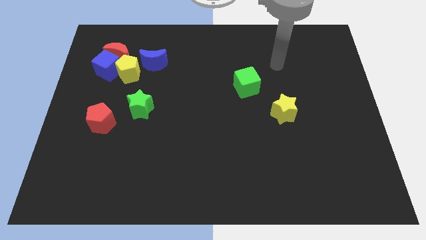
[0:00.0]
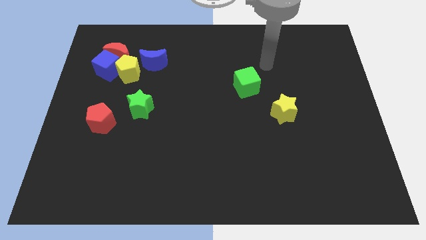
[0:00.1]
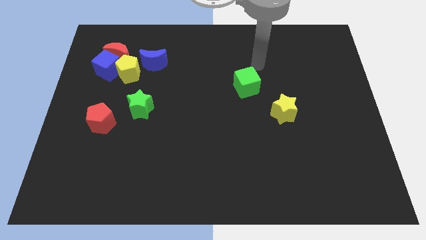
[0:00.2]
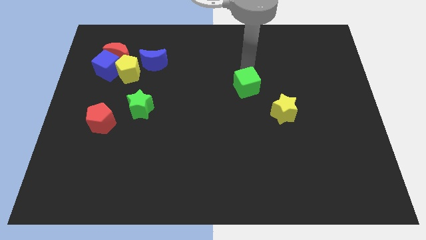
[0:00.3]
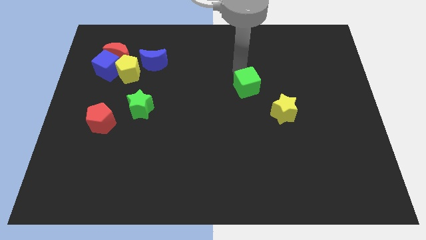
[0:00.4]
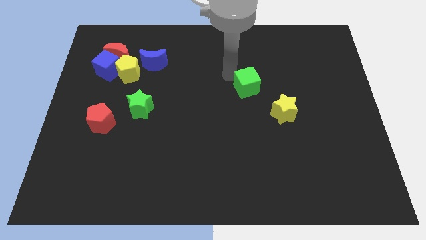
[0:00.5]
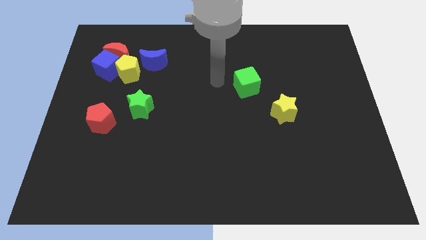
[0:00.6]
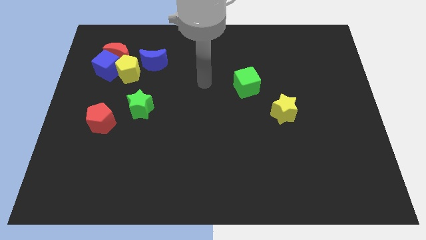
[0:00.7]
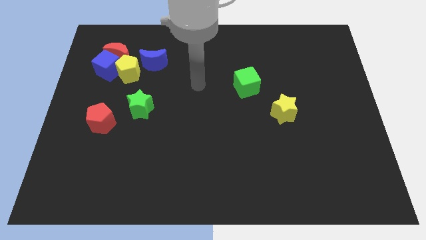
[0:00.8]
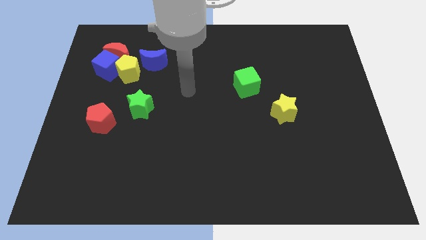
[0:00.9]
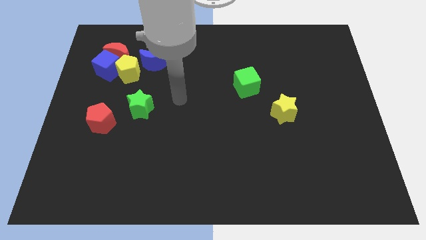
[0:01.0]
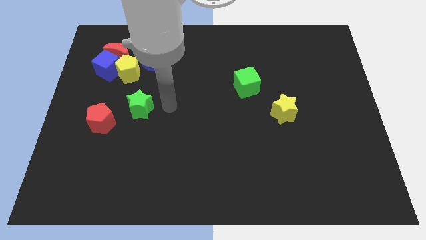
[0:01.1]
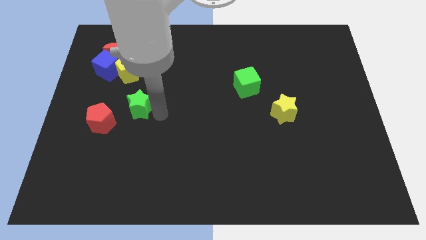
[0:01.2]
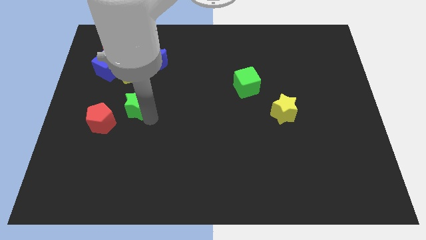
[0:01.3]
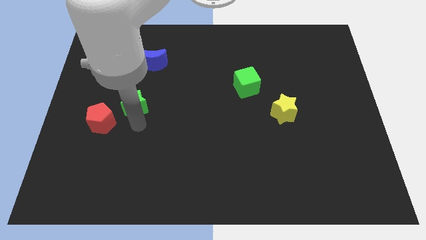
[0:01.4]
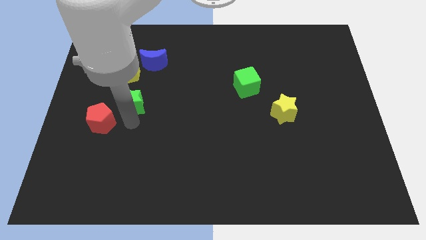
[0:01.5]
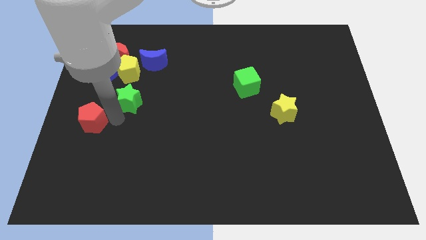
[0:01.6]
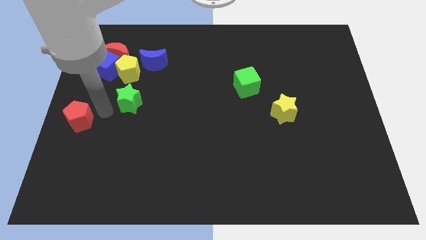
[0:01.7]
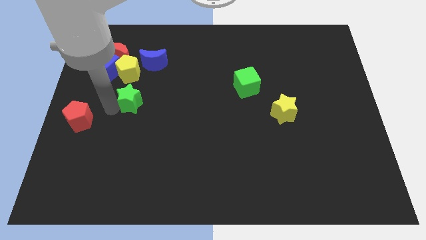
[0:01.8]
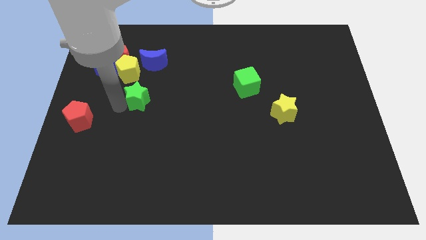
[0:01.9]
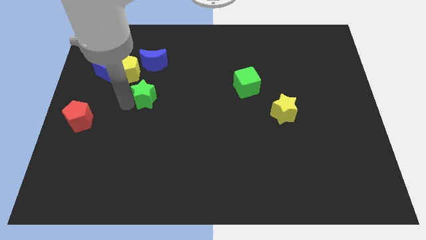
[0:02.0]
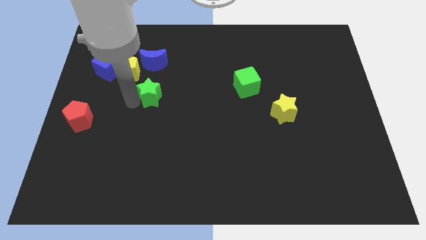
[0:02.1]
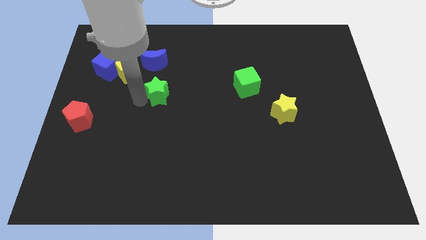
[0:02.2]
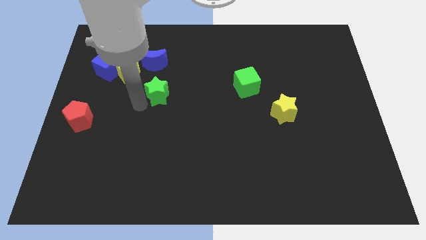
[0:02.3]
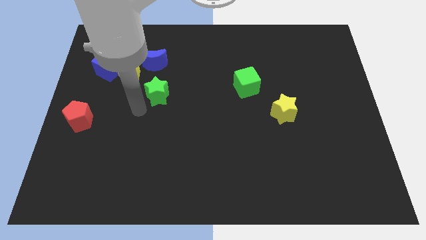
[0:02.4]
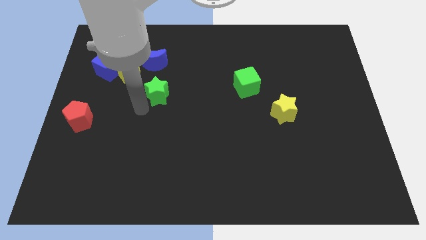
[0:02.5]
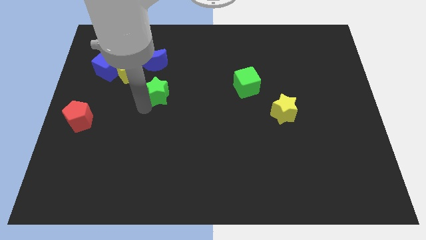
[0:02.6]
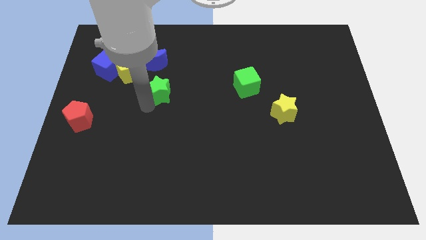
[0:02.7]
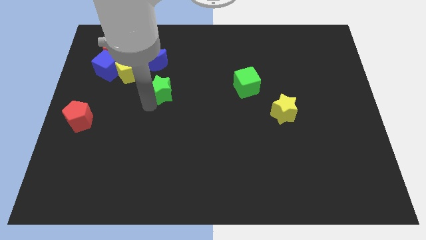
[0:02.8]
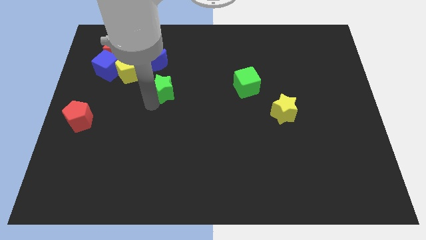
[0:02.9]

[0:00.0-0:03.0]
slightly push the green star up and then to the right

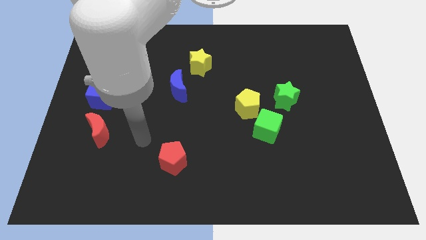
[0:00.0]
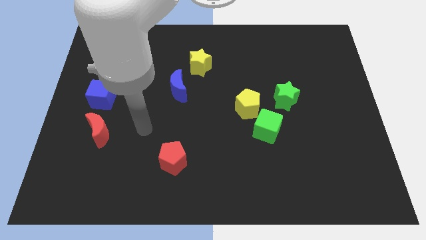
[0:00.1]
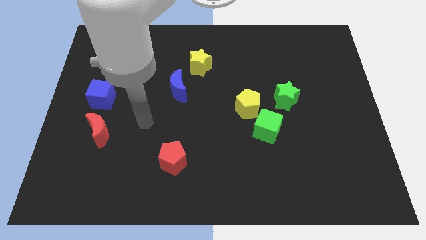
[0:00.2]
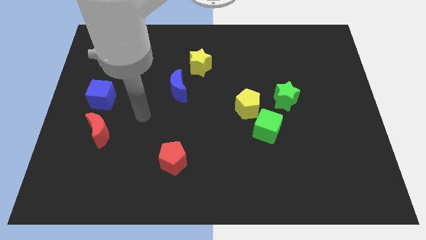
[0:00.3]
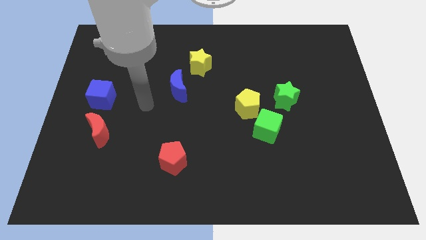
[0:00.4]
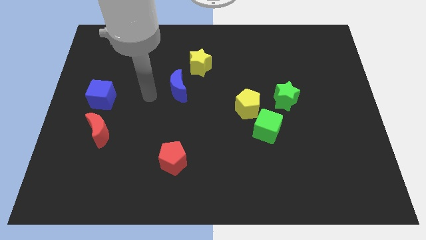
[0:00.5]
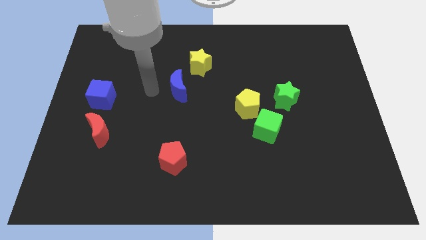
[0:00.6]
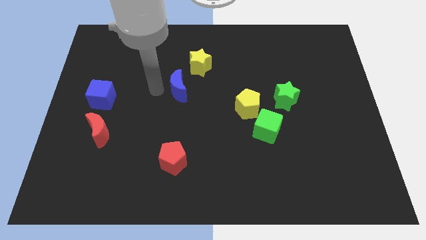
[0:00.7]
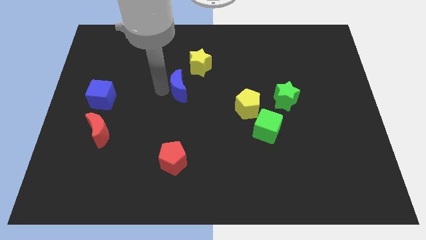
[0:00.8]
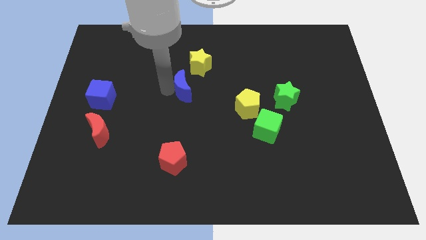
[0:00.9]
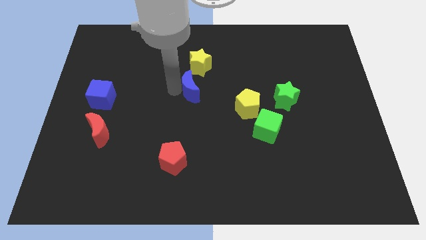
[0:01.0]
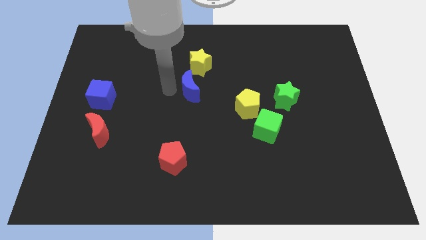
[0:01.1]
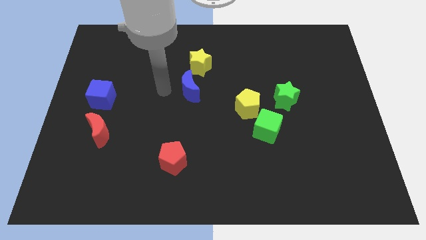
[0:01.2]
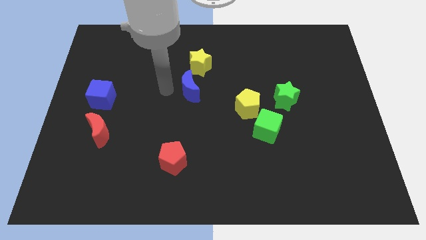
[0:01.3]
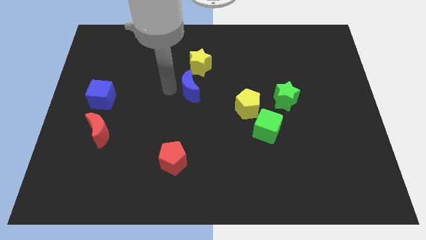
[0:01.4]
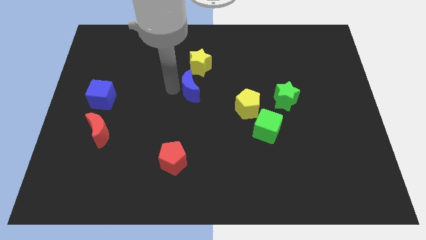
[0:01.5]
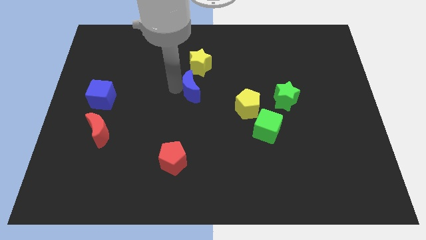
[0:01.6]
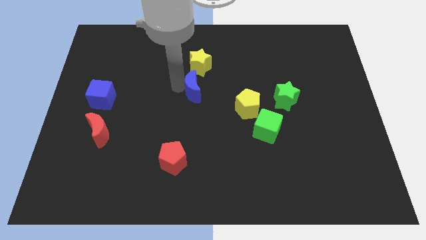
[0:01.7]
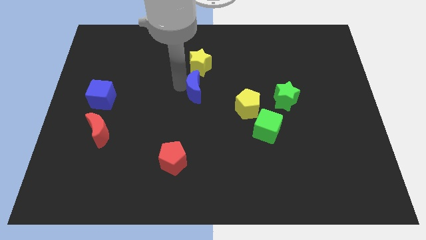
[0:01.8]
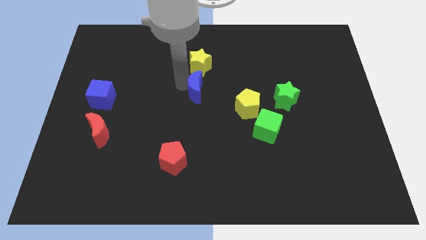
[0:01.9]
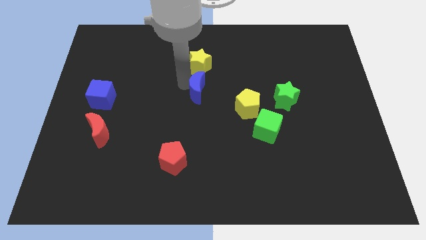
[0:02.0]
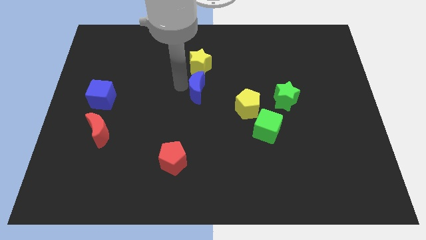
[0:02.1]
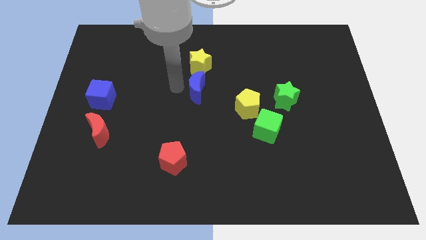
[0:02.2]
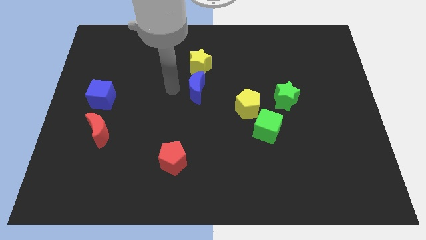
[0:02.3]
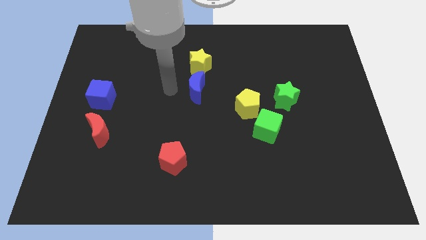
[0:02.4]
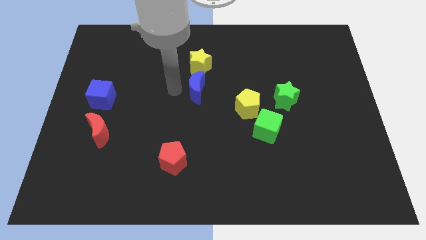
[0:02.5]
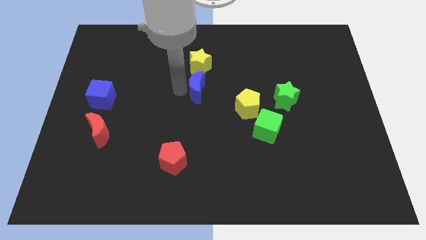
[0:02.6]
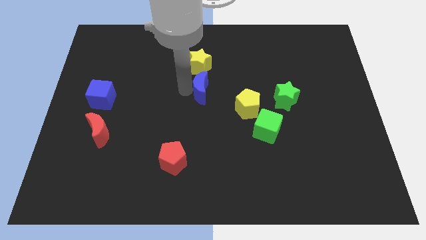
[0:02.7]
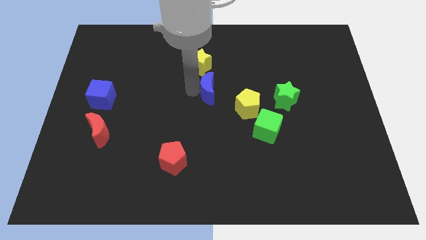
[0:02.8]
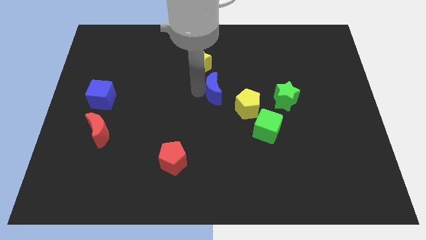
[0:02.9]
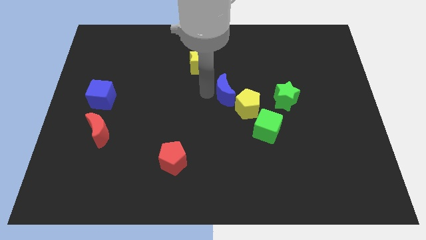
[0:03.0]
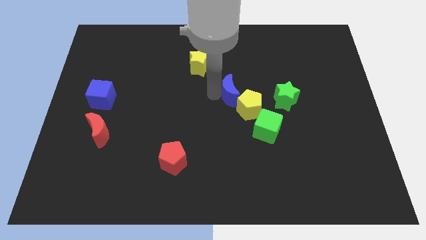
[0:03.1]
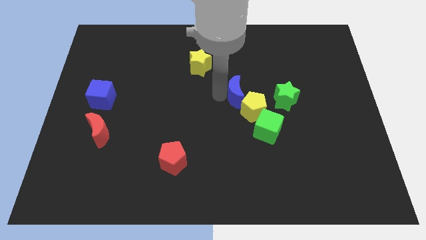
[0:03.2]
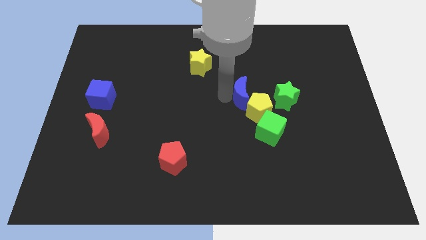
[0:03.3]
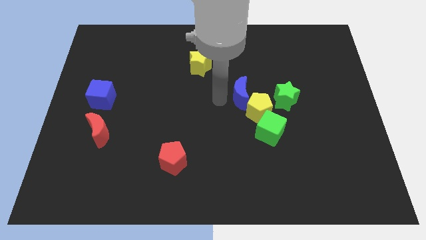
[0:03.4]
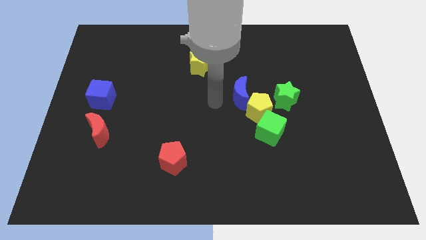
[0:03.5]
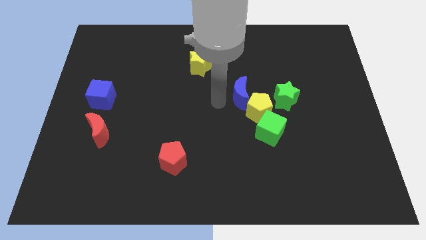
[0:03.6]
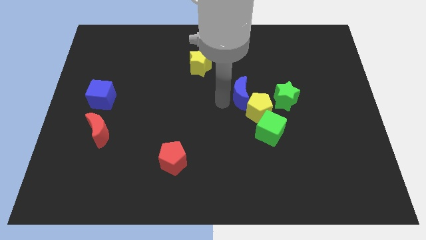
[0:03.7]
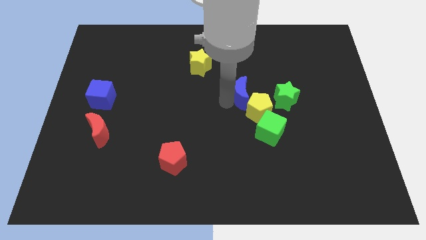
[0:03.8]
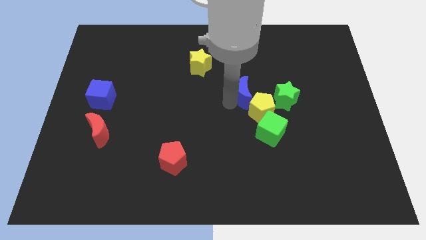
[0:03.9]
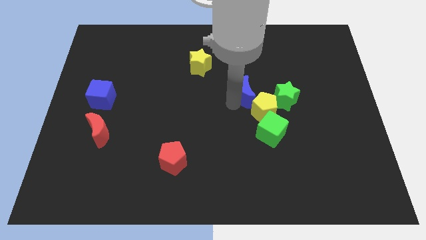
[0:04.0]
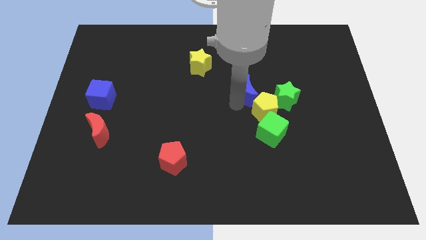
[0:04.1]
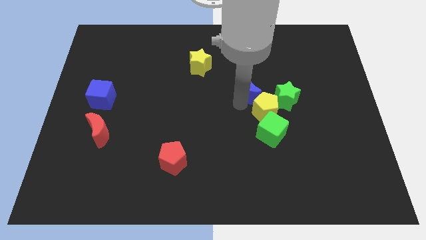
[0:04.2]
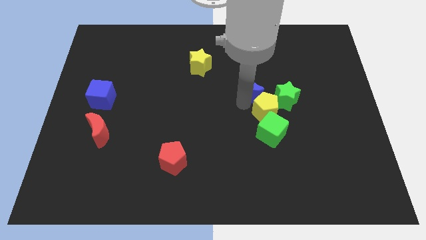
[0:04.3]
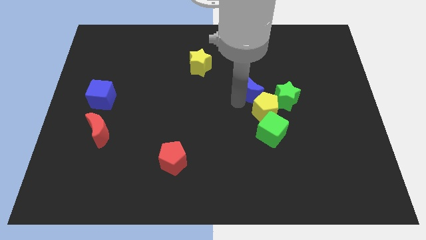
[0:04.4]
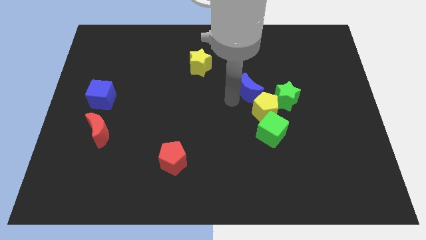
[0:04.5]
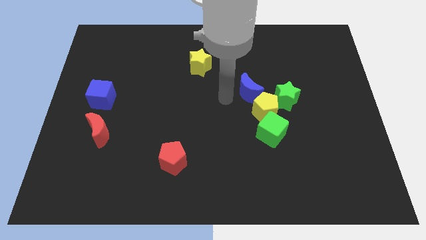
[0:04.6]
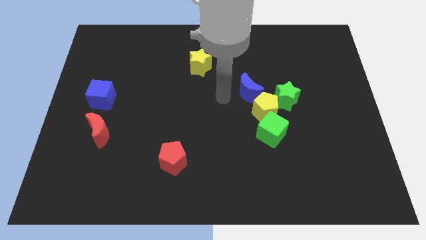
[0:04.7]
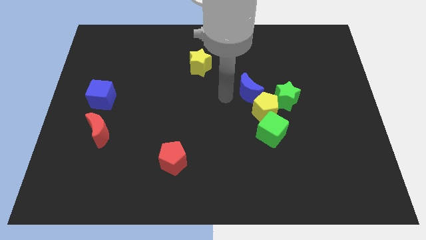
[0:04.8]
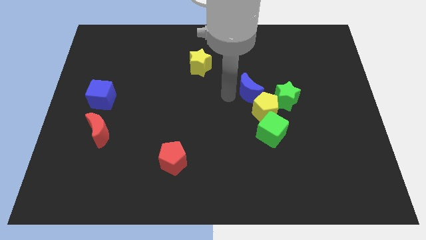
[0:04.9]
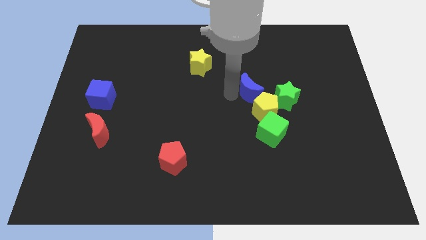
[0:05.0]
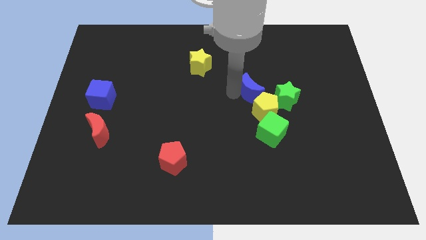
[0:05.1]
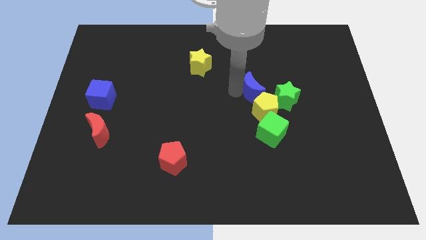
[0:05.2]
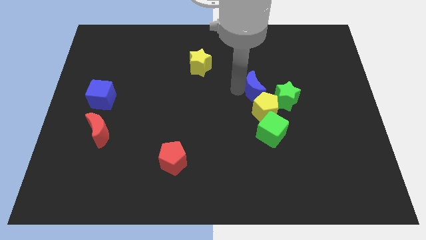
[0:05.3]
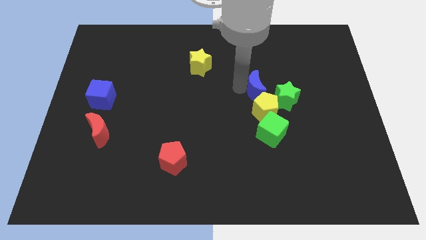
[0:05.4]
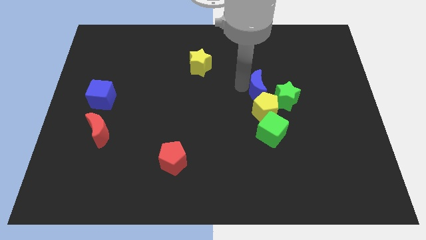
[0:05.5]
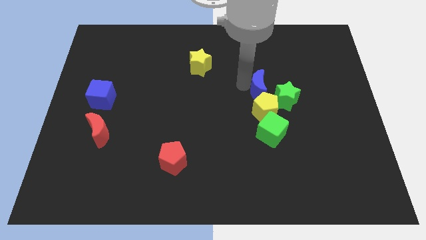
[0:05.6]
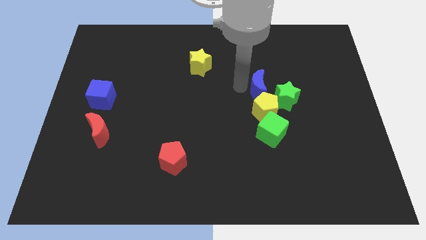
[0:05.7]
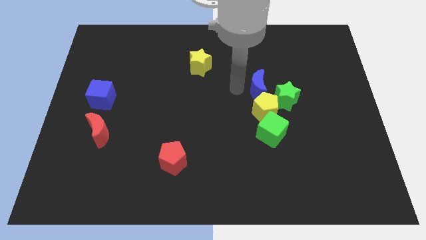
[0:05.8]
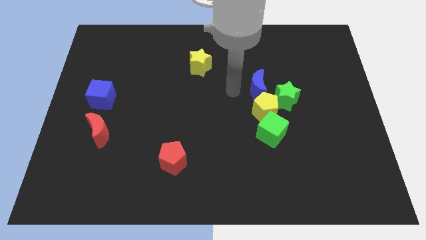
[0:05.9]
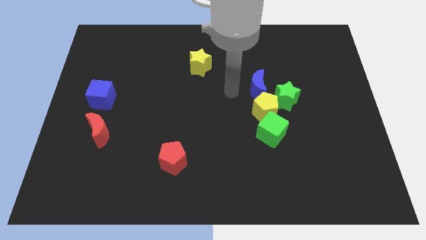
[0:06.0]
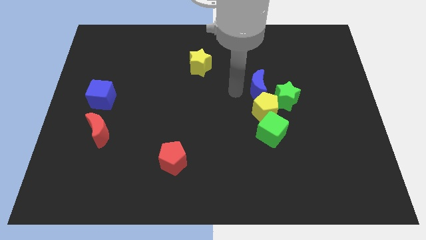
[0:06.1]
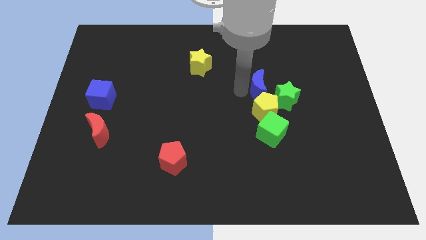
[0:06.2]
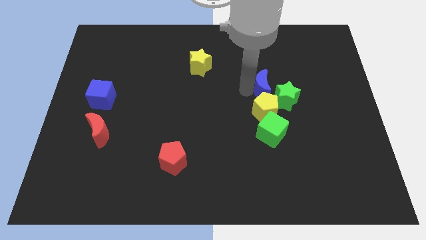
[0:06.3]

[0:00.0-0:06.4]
move the blue moon right
